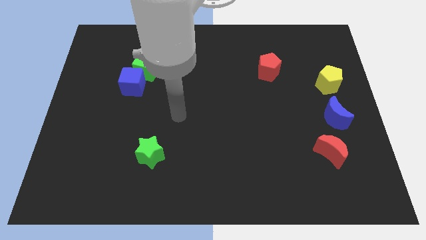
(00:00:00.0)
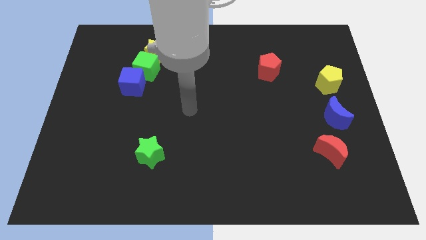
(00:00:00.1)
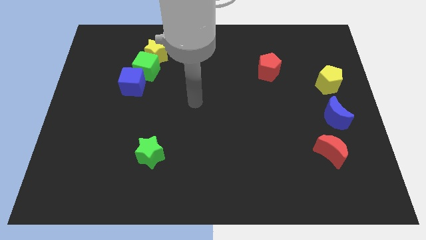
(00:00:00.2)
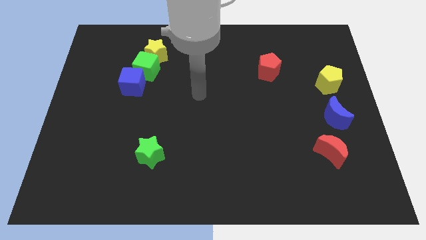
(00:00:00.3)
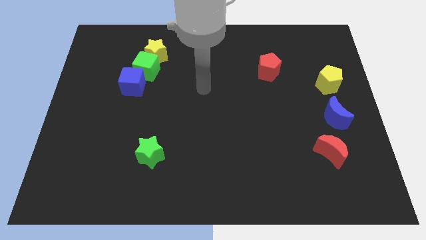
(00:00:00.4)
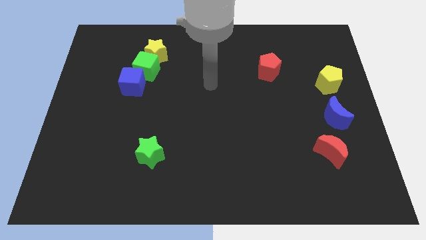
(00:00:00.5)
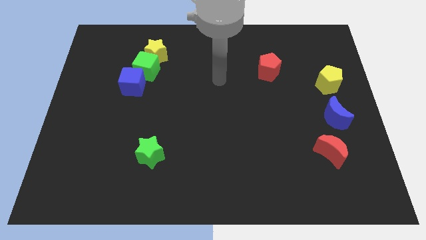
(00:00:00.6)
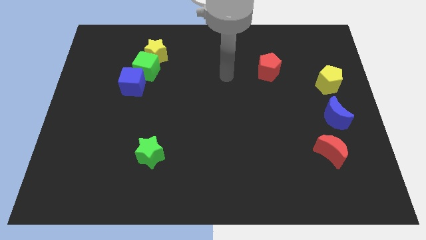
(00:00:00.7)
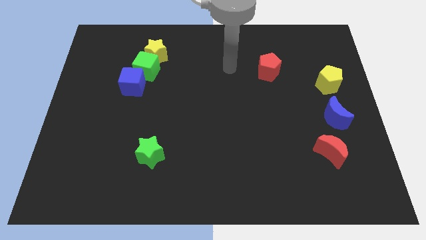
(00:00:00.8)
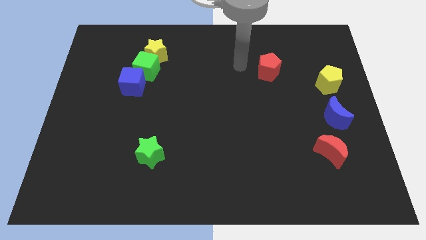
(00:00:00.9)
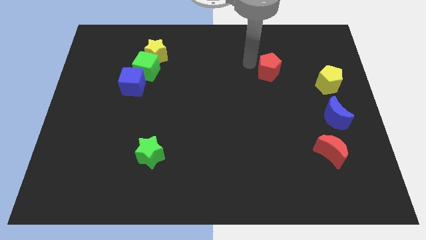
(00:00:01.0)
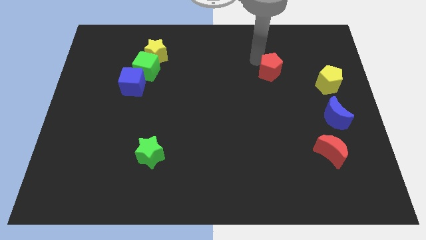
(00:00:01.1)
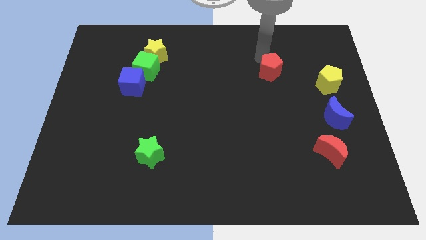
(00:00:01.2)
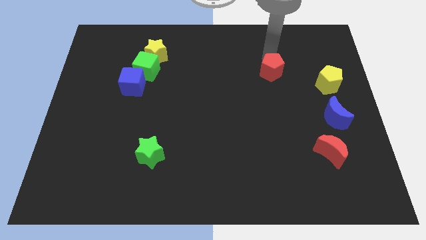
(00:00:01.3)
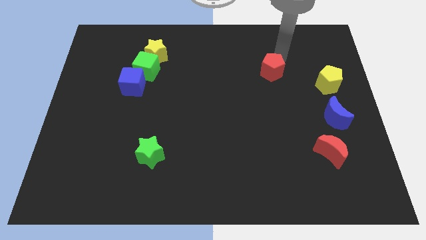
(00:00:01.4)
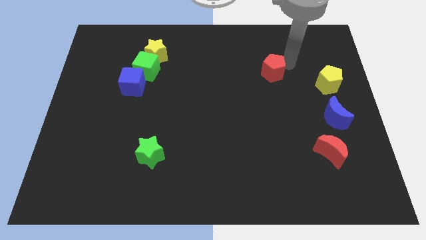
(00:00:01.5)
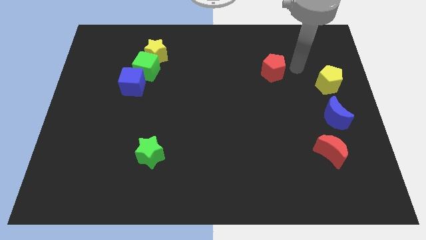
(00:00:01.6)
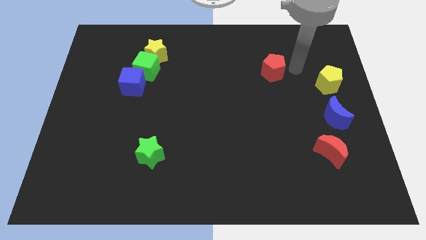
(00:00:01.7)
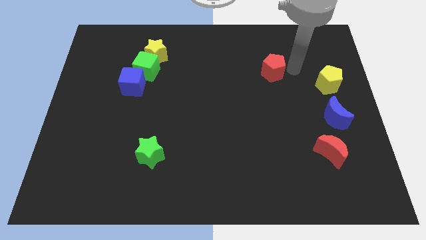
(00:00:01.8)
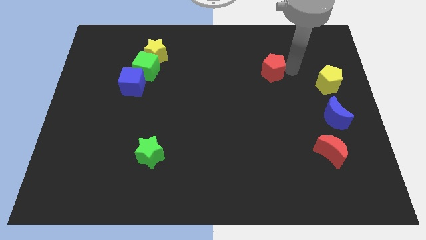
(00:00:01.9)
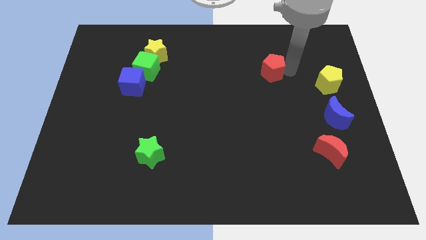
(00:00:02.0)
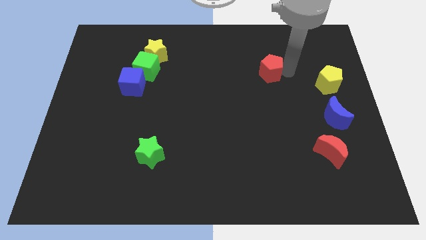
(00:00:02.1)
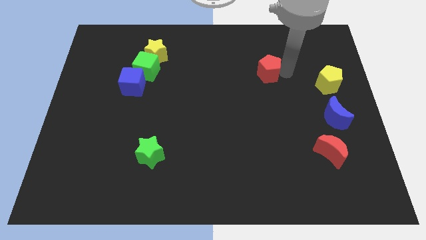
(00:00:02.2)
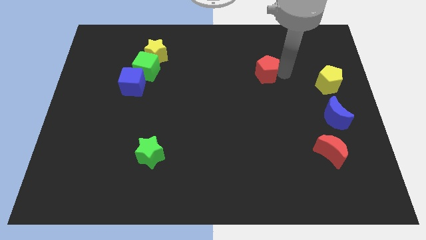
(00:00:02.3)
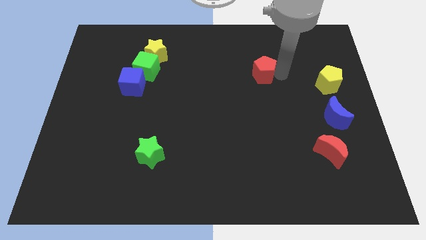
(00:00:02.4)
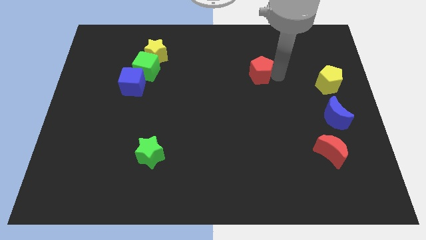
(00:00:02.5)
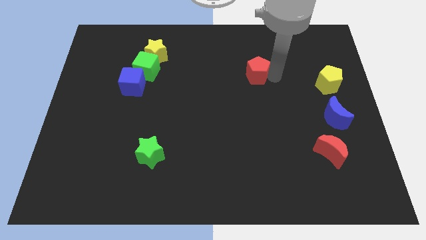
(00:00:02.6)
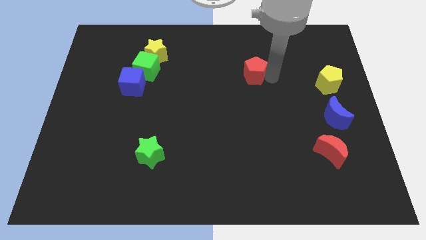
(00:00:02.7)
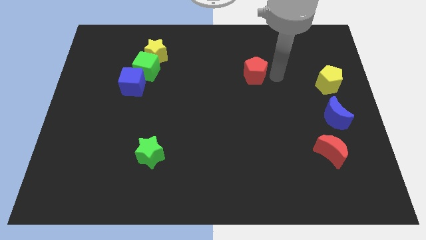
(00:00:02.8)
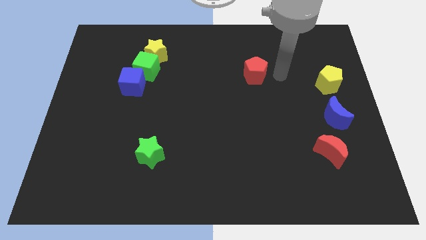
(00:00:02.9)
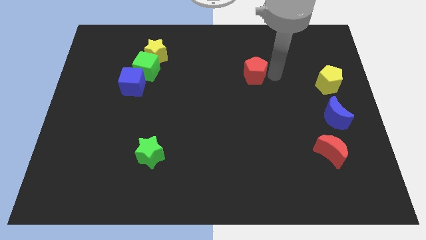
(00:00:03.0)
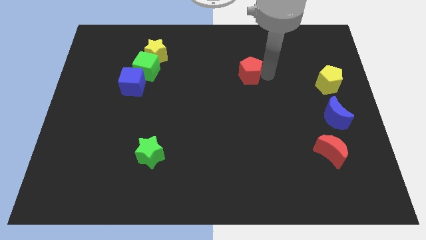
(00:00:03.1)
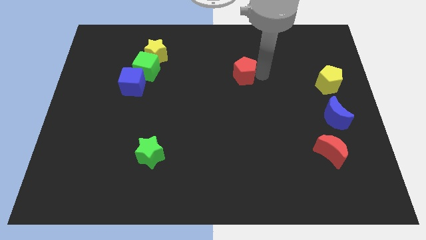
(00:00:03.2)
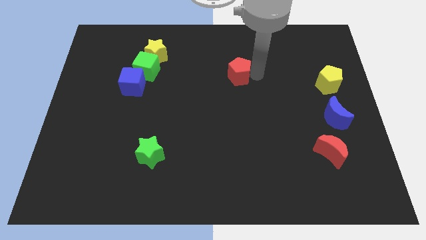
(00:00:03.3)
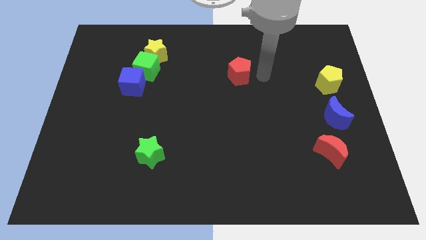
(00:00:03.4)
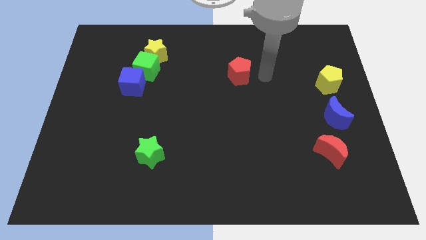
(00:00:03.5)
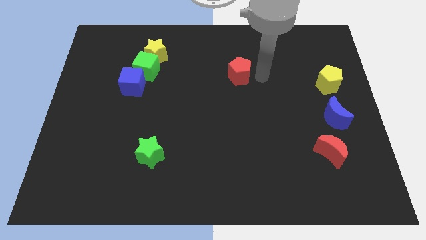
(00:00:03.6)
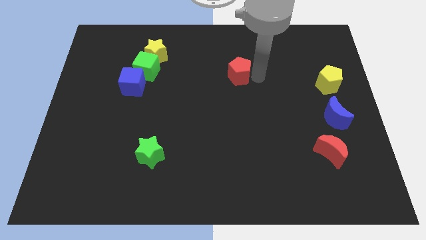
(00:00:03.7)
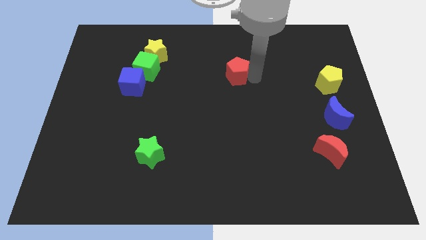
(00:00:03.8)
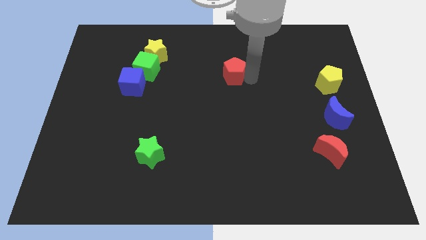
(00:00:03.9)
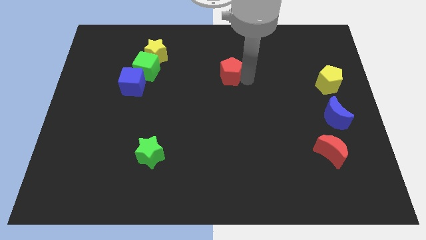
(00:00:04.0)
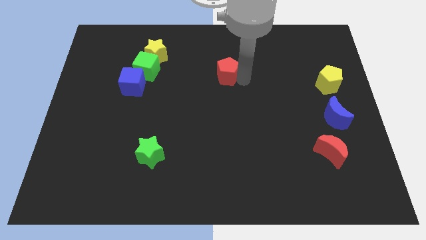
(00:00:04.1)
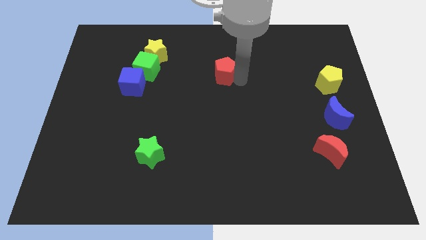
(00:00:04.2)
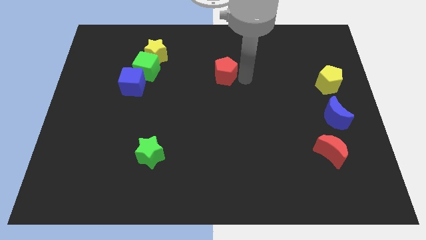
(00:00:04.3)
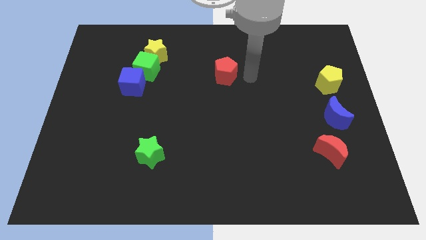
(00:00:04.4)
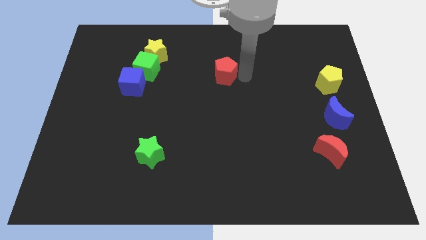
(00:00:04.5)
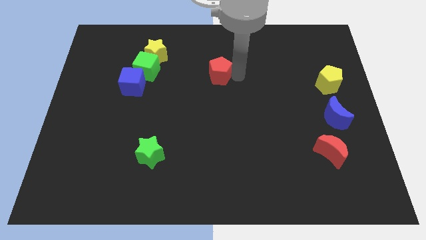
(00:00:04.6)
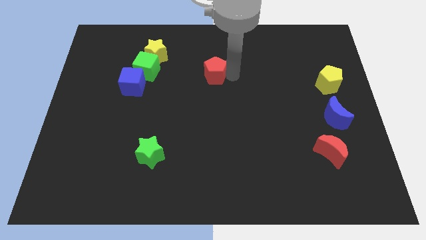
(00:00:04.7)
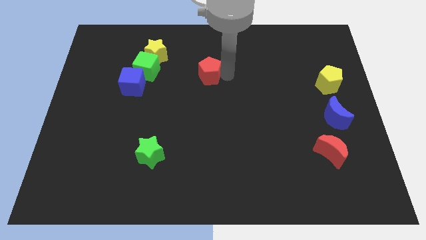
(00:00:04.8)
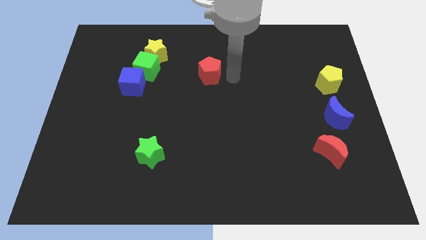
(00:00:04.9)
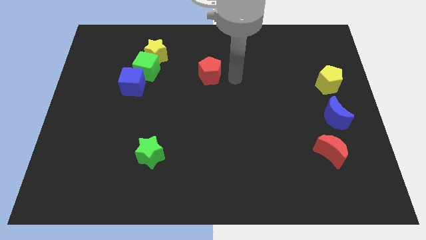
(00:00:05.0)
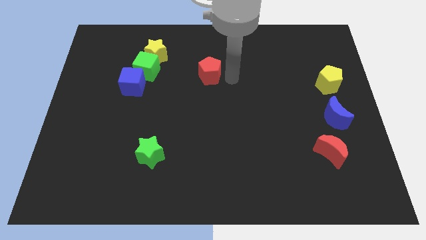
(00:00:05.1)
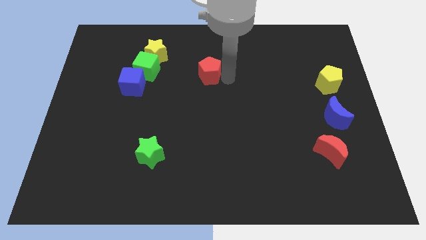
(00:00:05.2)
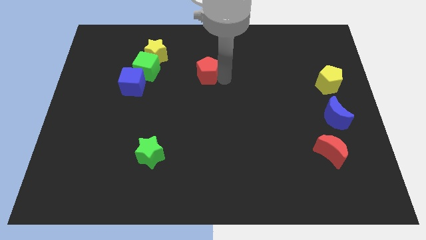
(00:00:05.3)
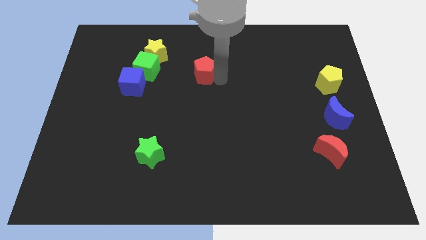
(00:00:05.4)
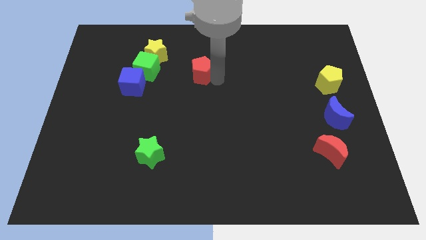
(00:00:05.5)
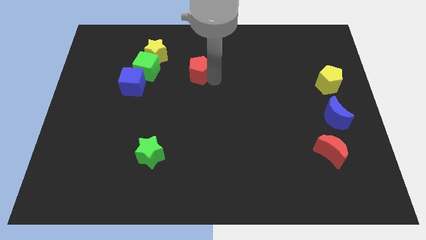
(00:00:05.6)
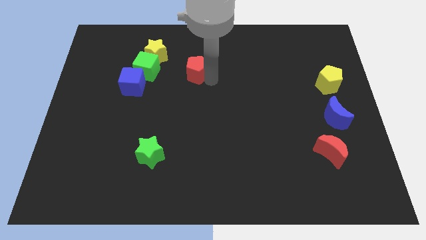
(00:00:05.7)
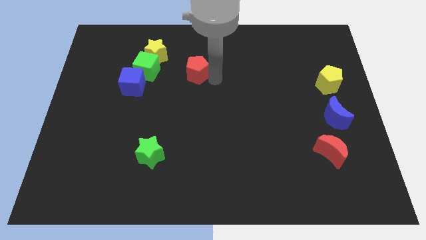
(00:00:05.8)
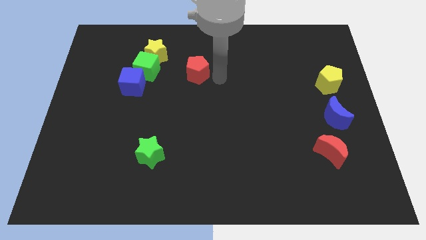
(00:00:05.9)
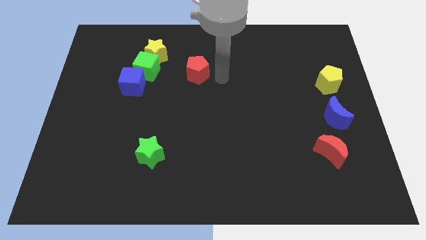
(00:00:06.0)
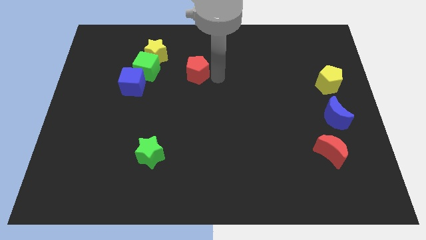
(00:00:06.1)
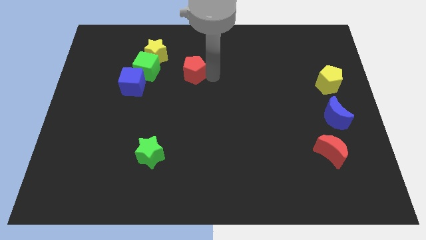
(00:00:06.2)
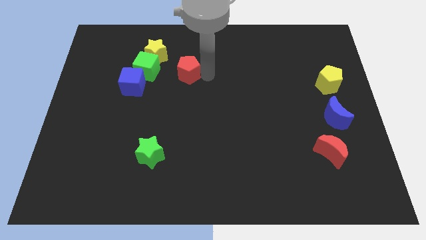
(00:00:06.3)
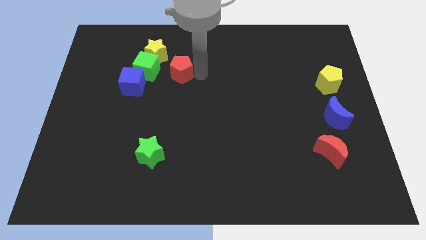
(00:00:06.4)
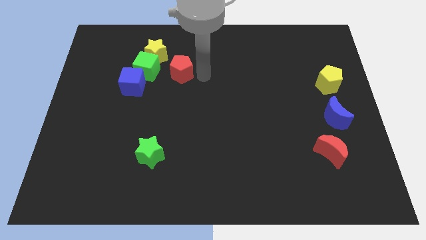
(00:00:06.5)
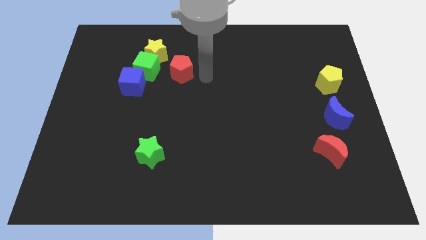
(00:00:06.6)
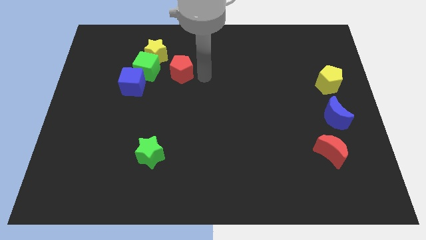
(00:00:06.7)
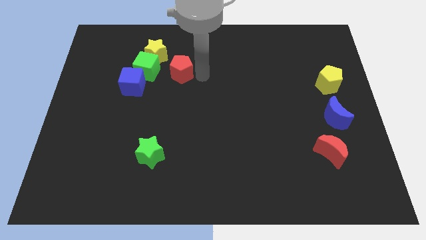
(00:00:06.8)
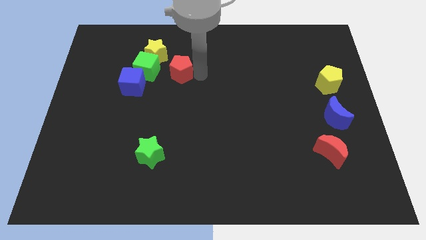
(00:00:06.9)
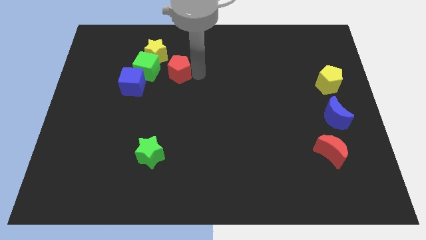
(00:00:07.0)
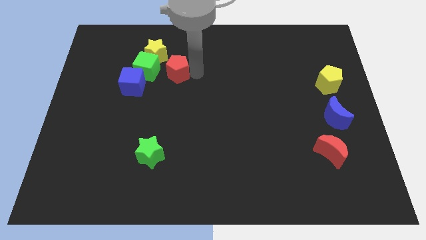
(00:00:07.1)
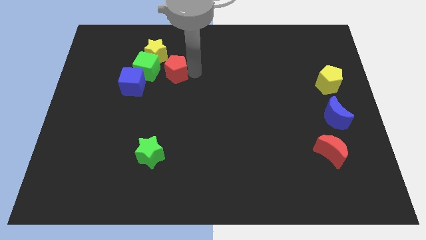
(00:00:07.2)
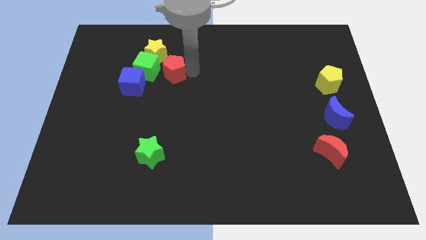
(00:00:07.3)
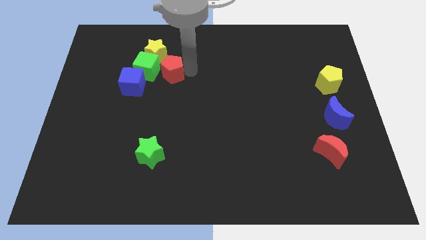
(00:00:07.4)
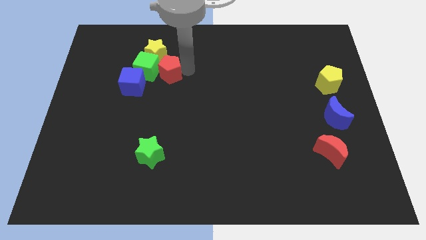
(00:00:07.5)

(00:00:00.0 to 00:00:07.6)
put the red pentagon close to the green cube
